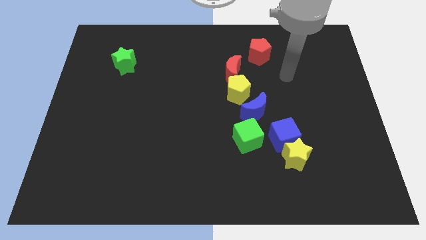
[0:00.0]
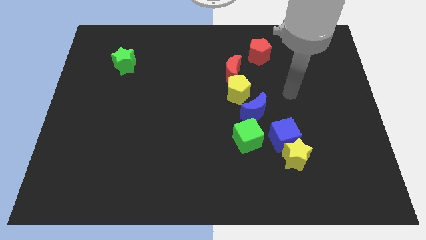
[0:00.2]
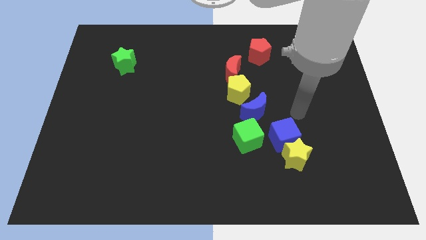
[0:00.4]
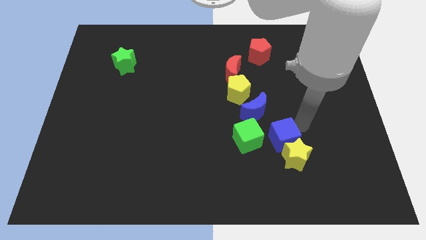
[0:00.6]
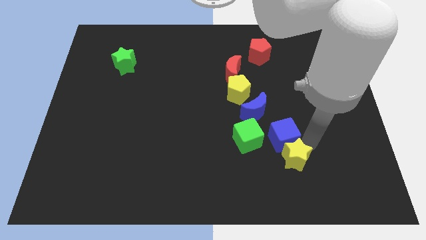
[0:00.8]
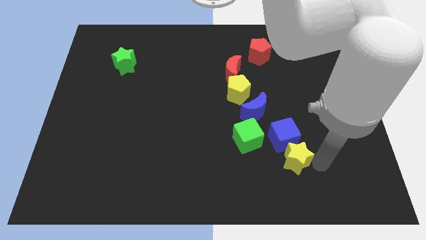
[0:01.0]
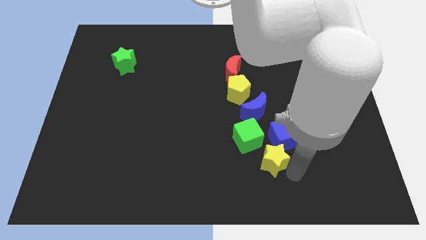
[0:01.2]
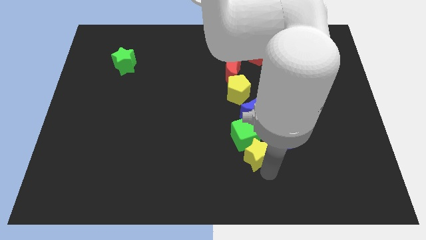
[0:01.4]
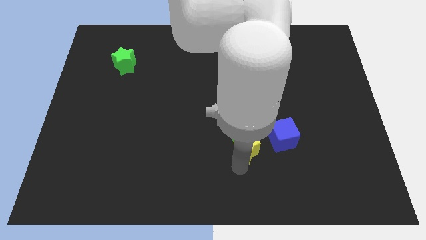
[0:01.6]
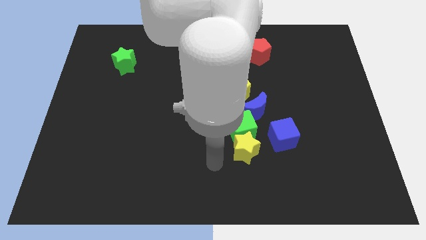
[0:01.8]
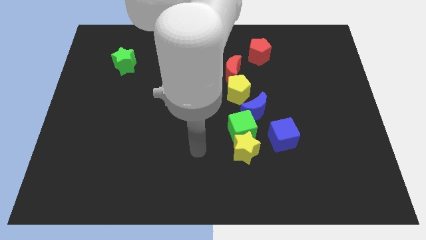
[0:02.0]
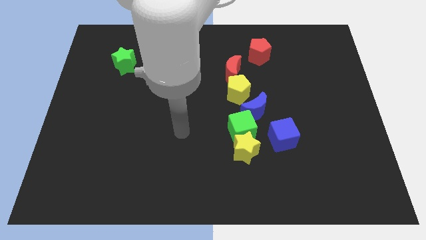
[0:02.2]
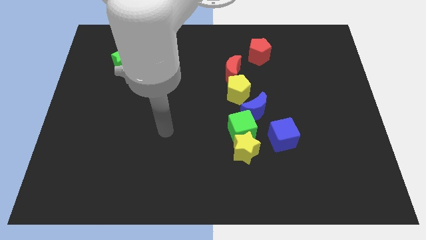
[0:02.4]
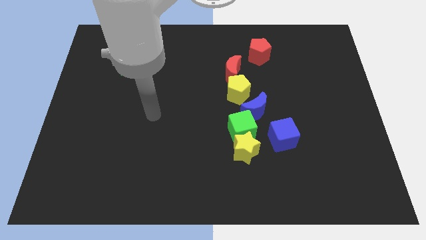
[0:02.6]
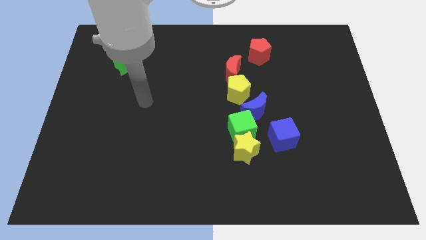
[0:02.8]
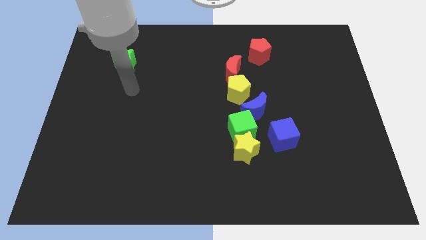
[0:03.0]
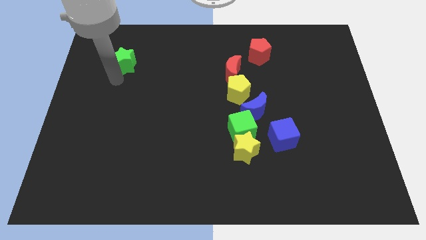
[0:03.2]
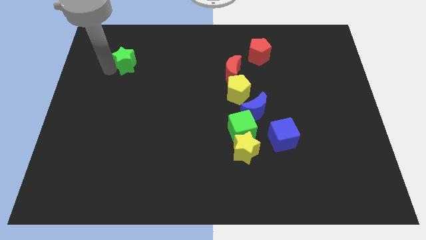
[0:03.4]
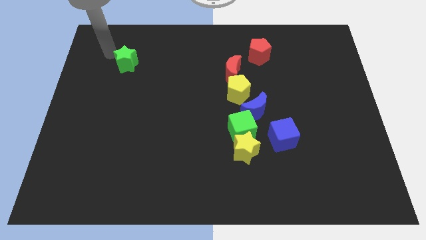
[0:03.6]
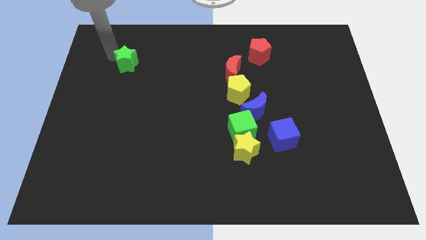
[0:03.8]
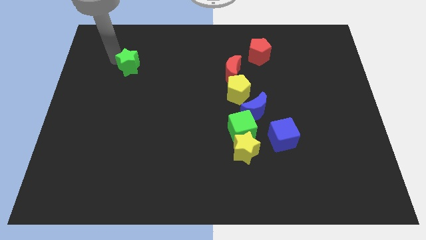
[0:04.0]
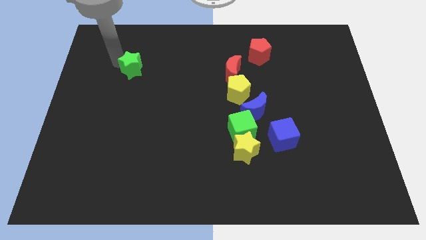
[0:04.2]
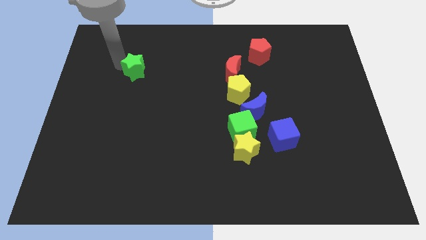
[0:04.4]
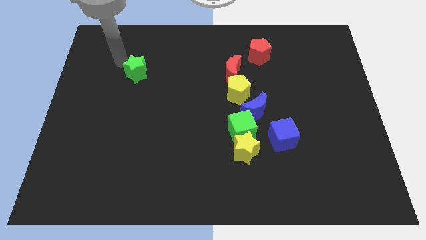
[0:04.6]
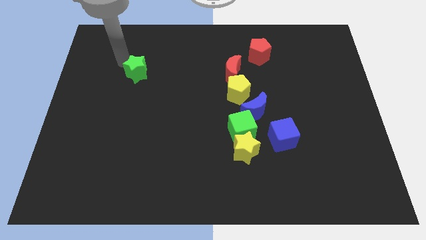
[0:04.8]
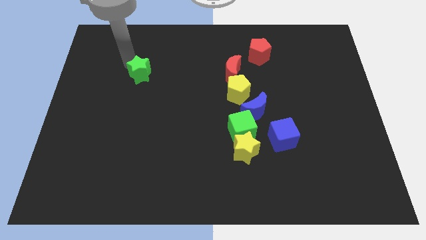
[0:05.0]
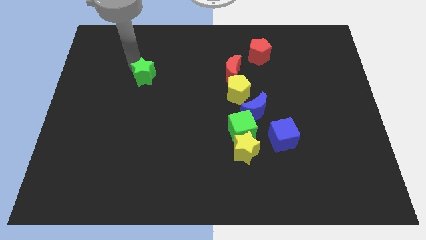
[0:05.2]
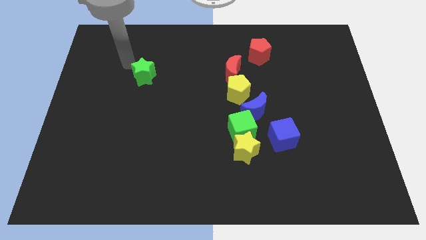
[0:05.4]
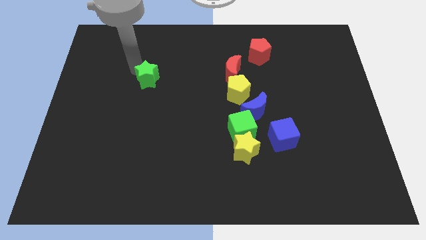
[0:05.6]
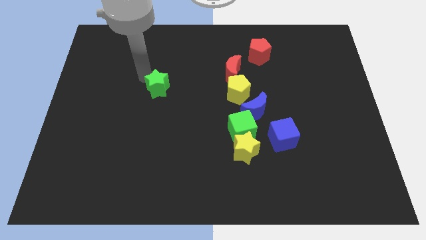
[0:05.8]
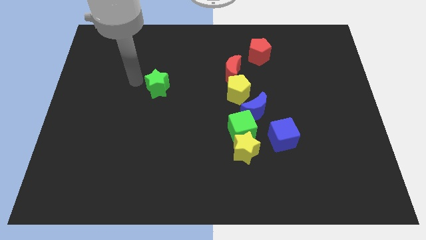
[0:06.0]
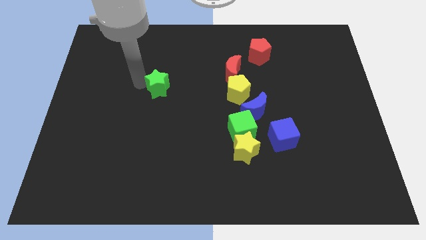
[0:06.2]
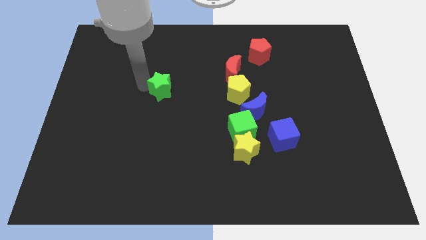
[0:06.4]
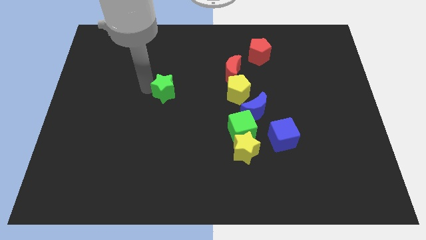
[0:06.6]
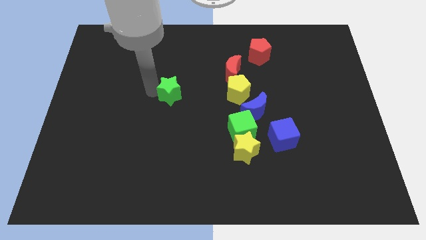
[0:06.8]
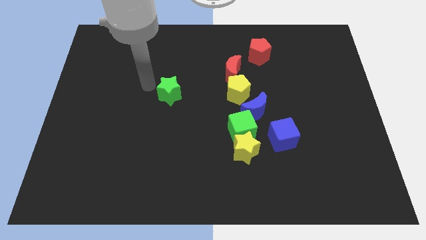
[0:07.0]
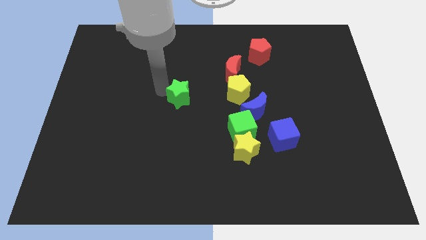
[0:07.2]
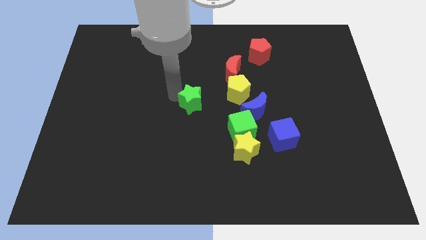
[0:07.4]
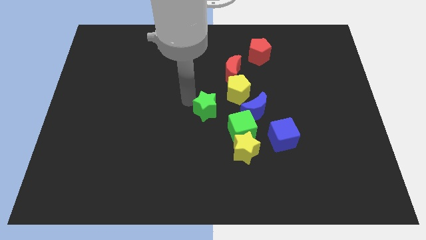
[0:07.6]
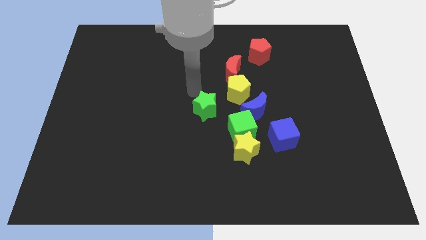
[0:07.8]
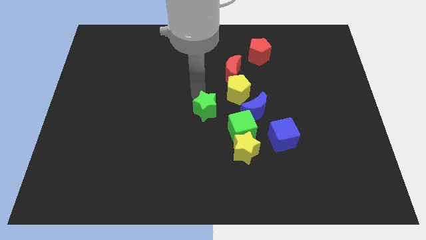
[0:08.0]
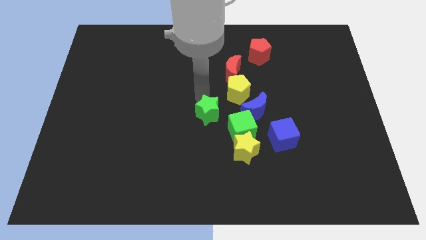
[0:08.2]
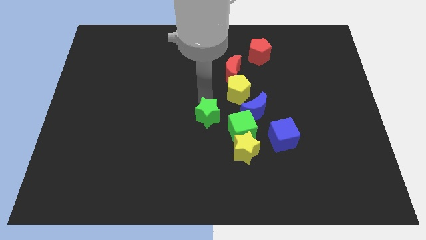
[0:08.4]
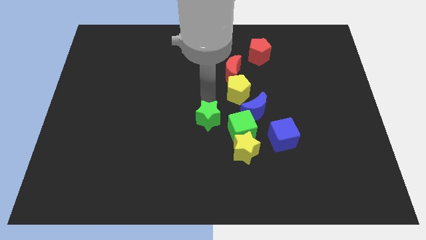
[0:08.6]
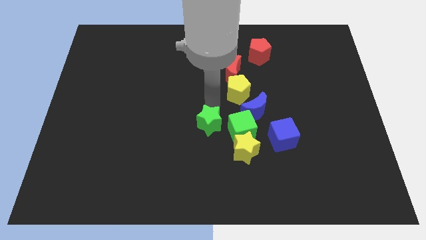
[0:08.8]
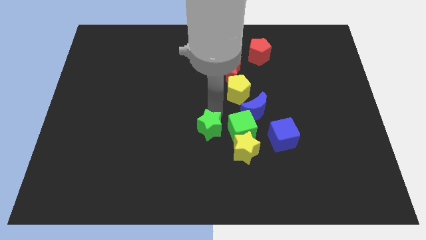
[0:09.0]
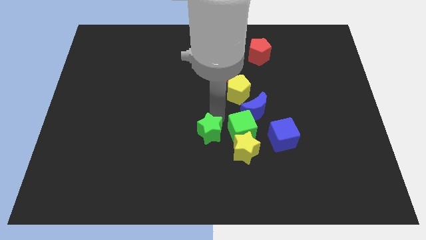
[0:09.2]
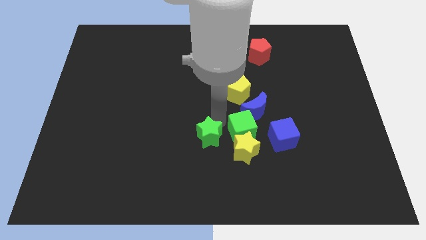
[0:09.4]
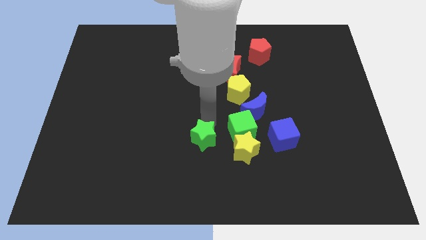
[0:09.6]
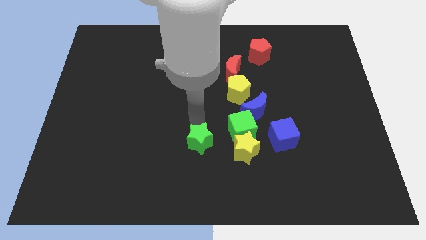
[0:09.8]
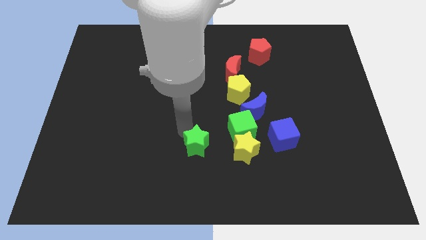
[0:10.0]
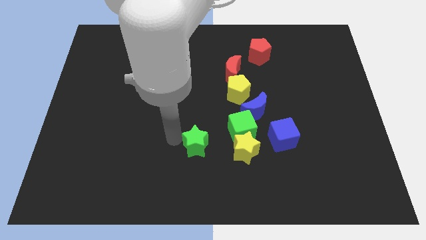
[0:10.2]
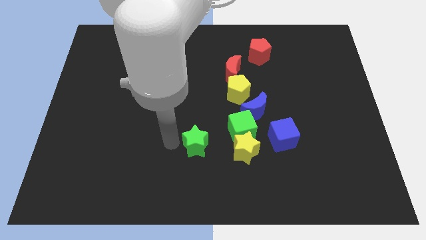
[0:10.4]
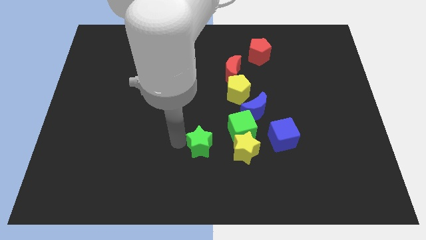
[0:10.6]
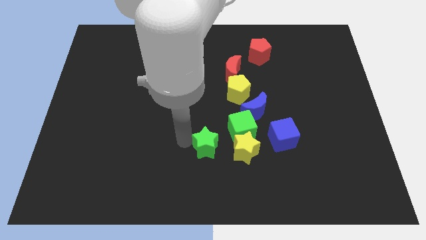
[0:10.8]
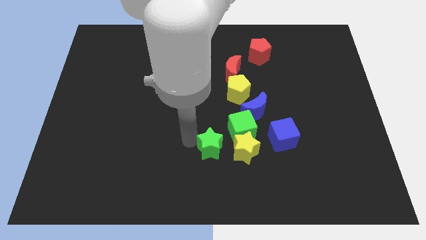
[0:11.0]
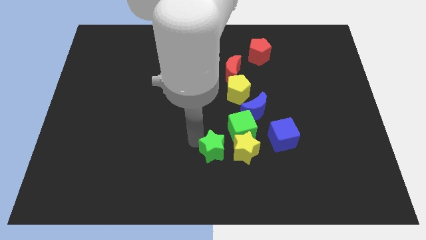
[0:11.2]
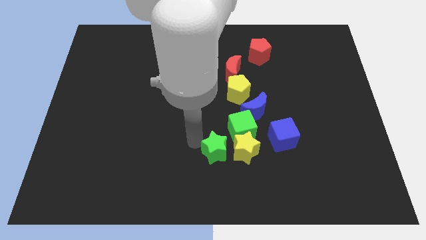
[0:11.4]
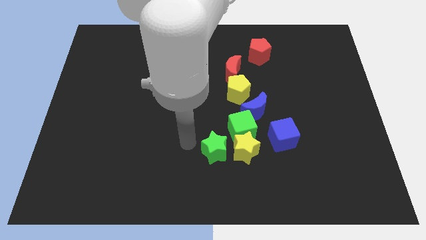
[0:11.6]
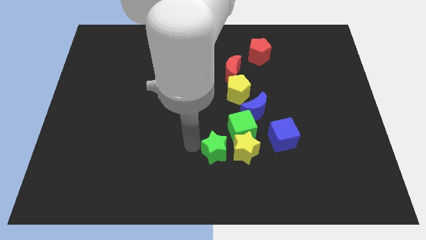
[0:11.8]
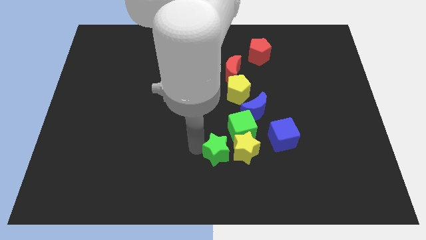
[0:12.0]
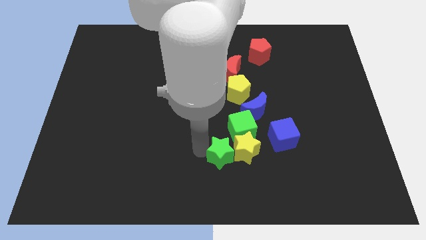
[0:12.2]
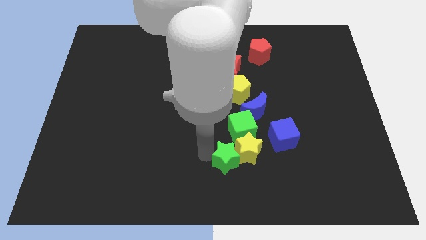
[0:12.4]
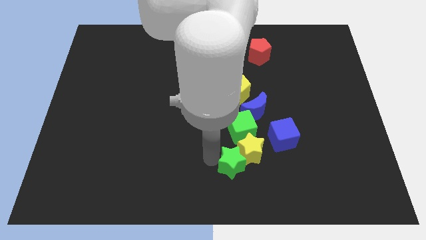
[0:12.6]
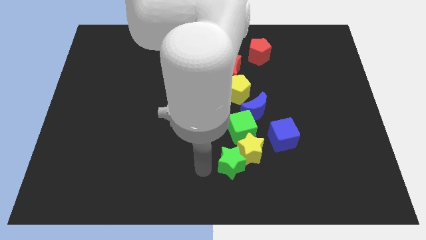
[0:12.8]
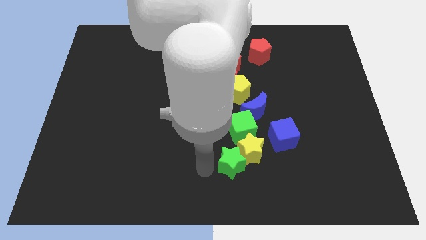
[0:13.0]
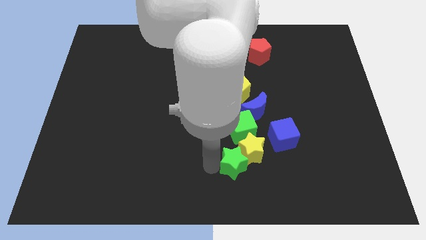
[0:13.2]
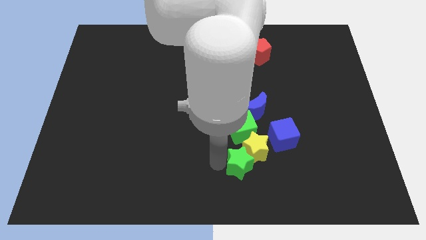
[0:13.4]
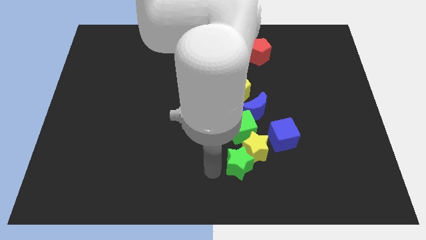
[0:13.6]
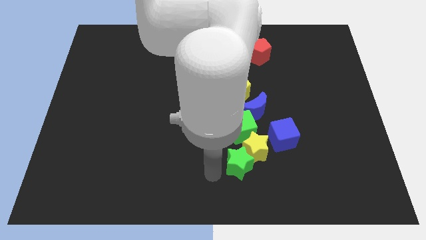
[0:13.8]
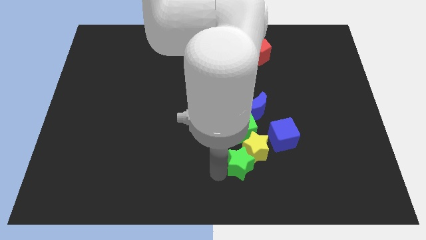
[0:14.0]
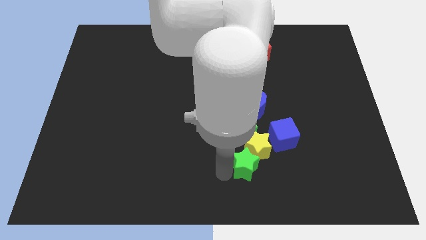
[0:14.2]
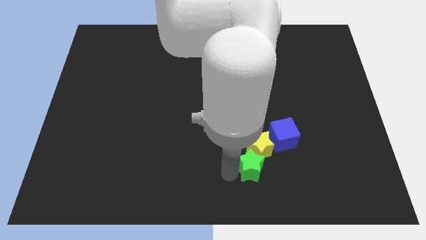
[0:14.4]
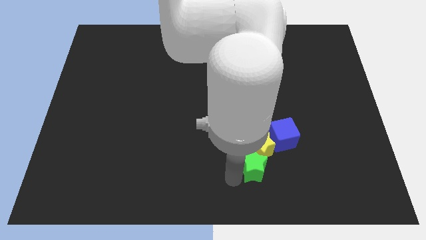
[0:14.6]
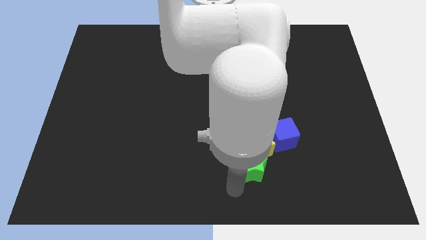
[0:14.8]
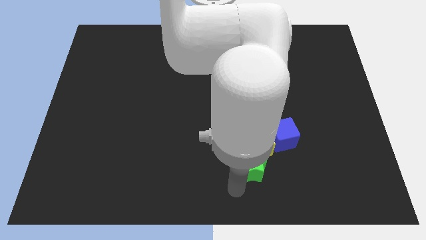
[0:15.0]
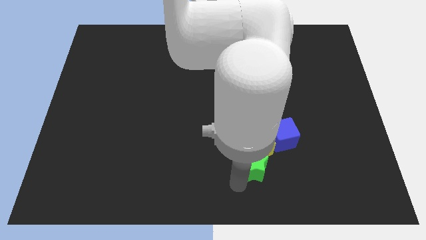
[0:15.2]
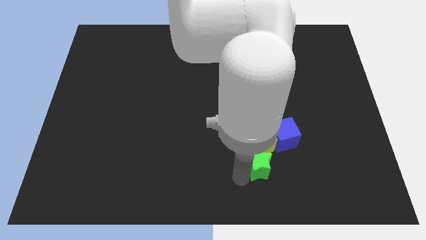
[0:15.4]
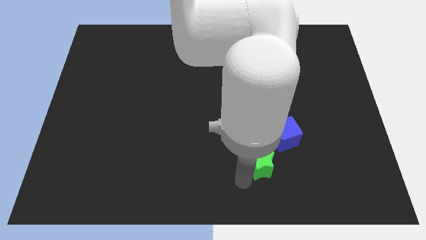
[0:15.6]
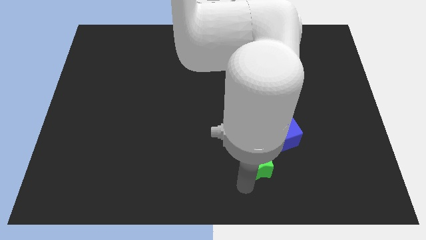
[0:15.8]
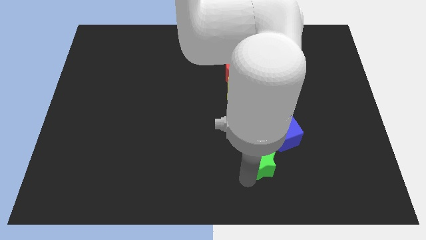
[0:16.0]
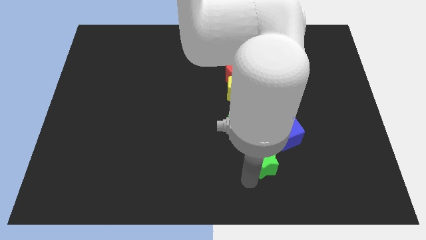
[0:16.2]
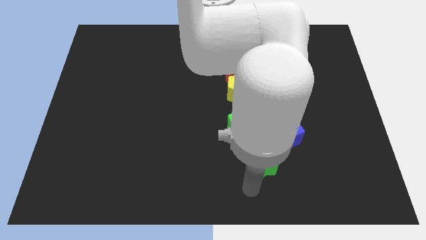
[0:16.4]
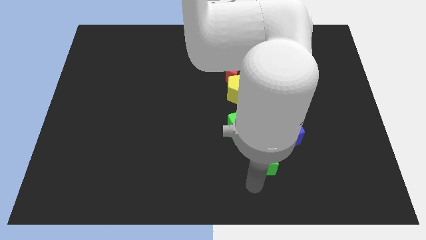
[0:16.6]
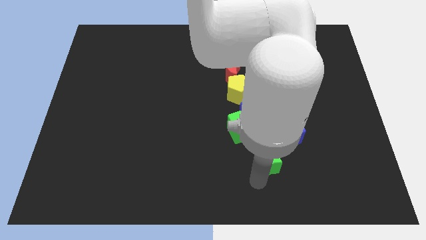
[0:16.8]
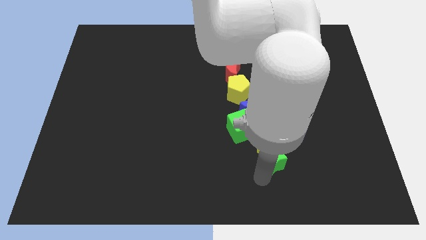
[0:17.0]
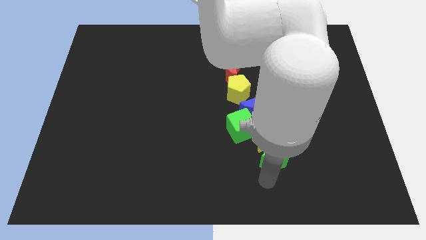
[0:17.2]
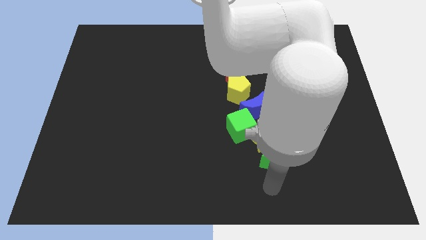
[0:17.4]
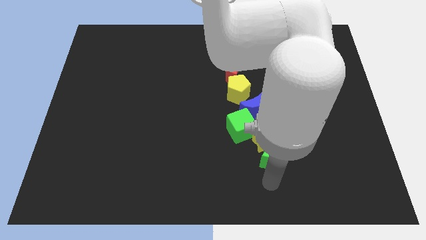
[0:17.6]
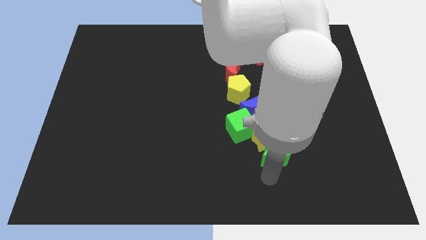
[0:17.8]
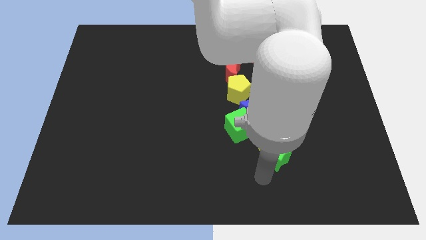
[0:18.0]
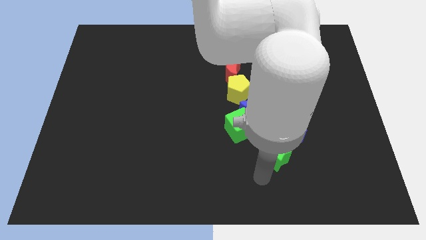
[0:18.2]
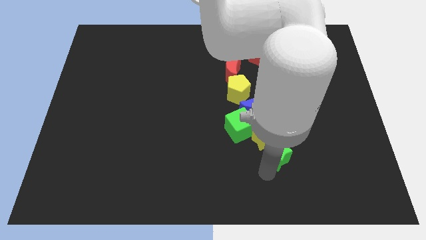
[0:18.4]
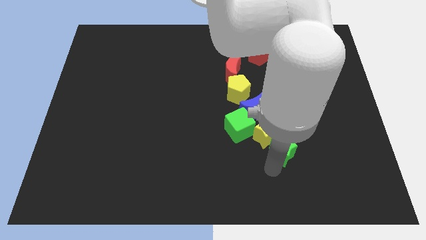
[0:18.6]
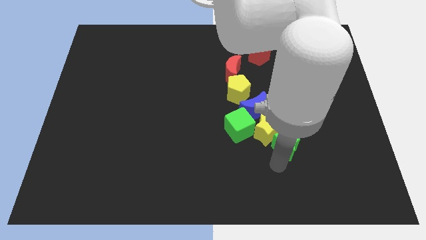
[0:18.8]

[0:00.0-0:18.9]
push the green star next to the blue cube
